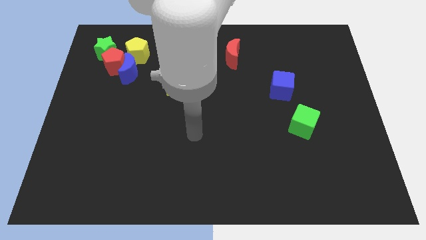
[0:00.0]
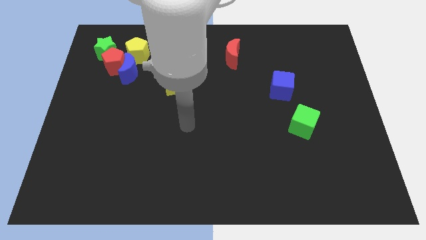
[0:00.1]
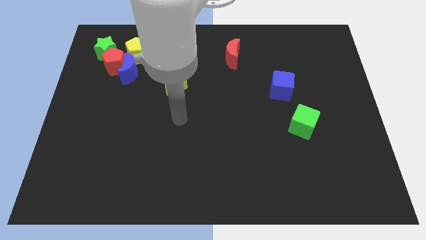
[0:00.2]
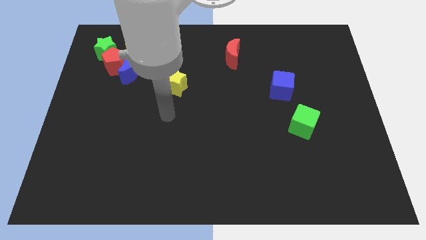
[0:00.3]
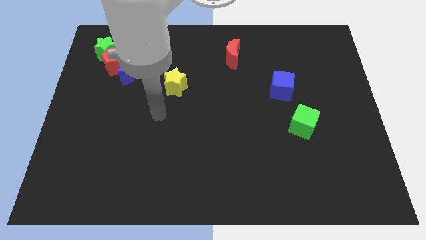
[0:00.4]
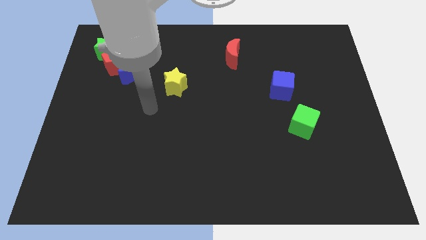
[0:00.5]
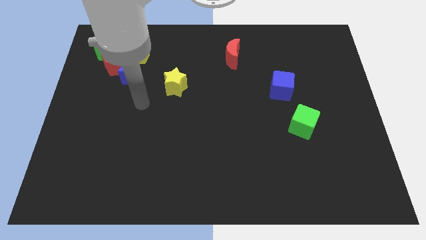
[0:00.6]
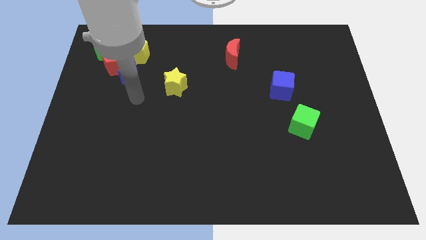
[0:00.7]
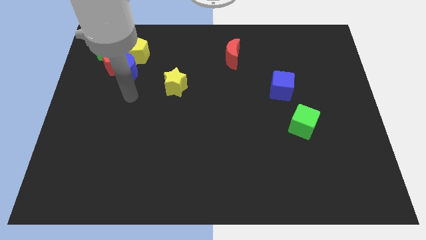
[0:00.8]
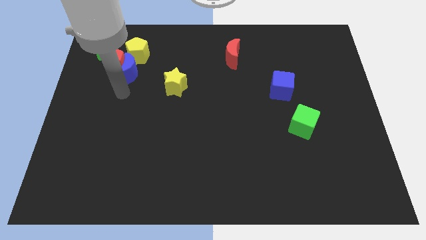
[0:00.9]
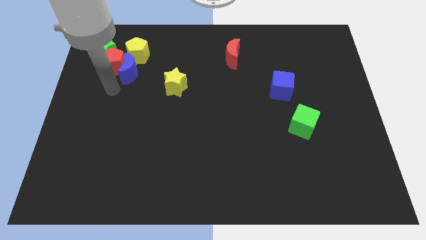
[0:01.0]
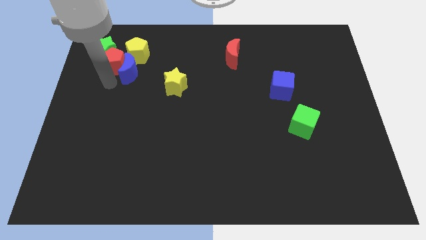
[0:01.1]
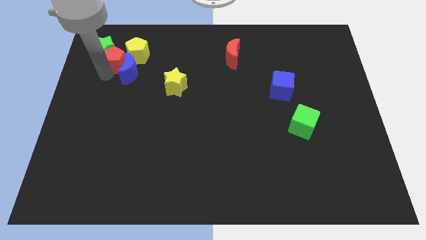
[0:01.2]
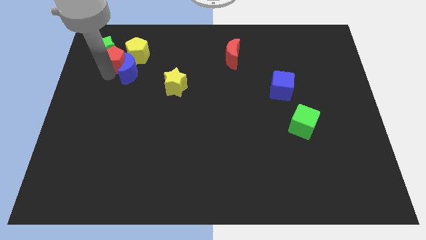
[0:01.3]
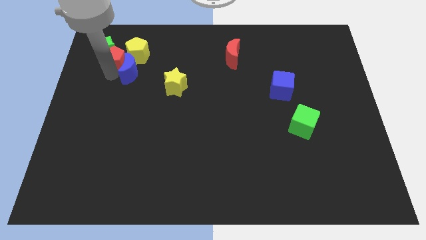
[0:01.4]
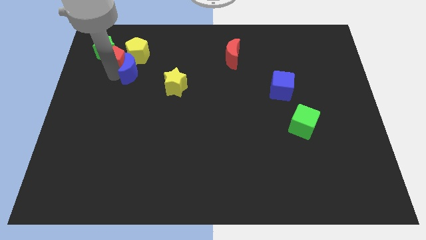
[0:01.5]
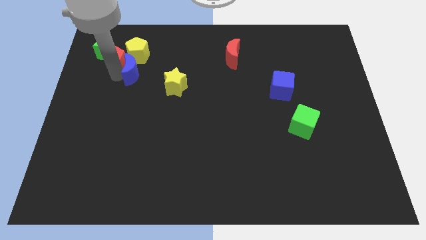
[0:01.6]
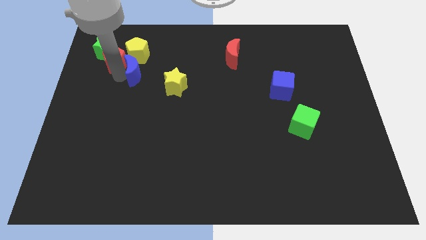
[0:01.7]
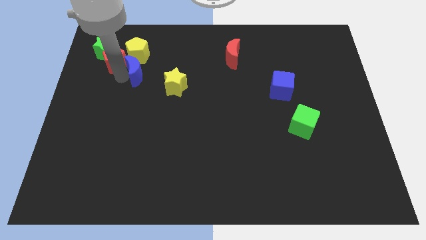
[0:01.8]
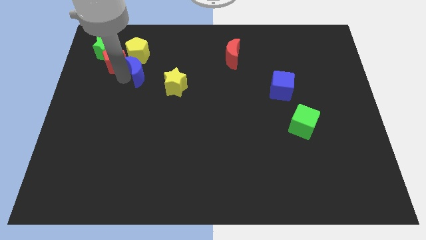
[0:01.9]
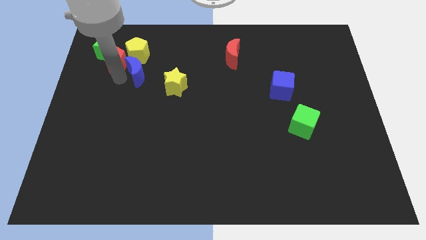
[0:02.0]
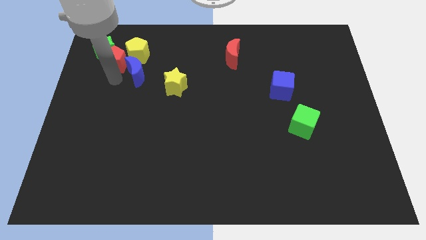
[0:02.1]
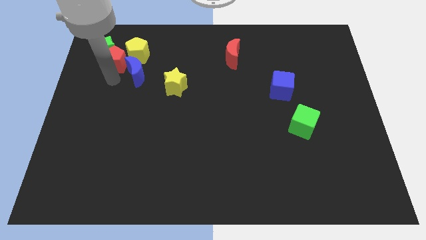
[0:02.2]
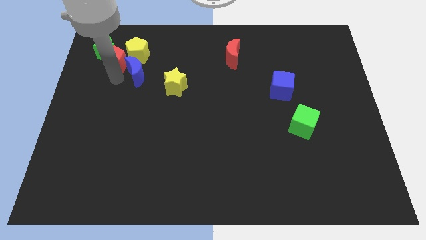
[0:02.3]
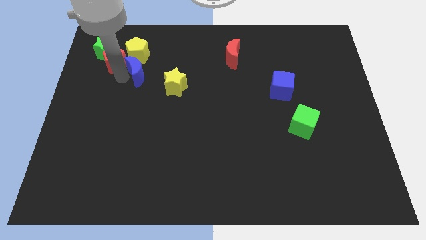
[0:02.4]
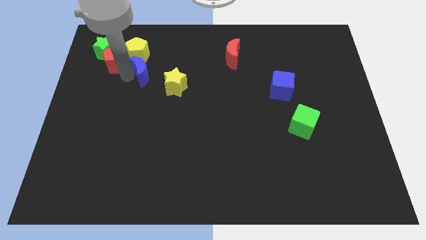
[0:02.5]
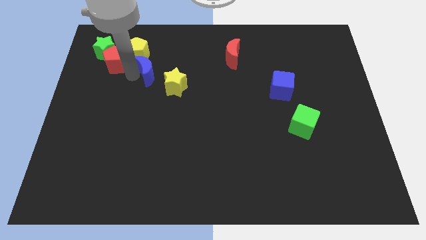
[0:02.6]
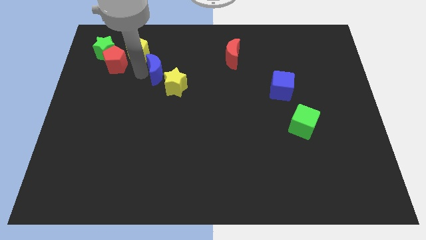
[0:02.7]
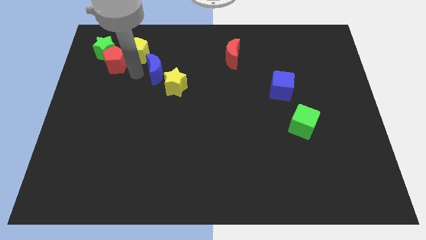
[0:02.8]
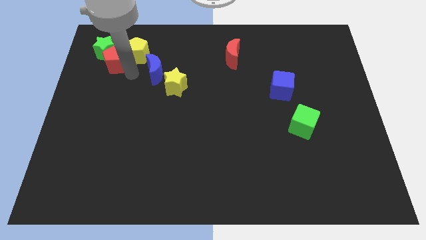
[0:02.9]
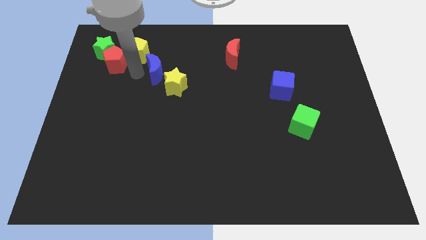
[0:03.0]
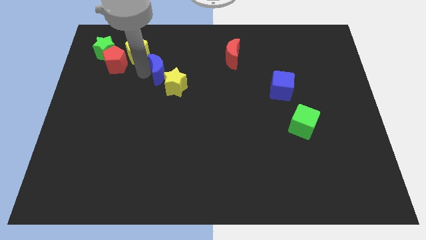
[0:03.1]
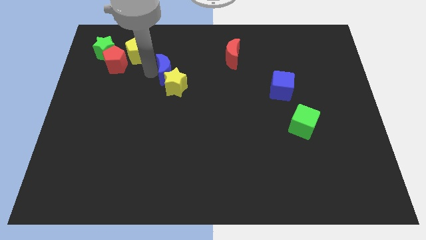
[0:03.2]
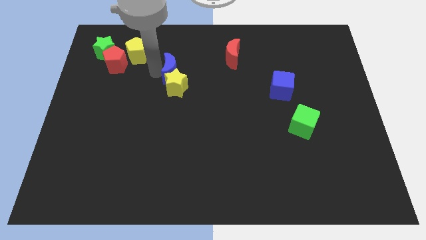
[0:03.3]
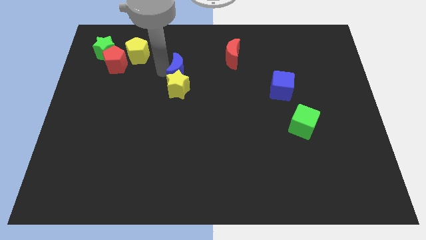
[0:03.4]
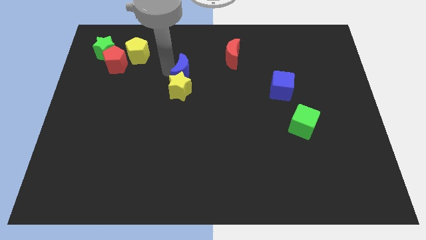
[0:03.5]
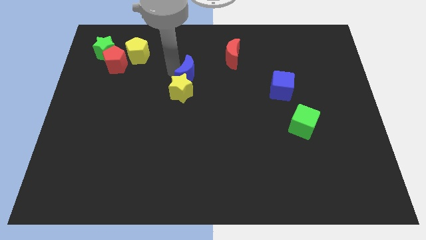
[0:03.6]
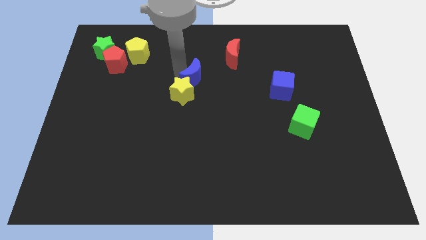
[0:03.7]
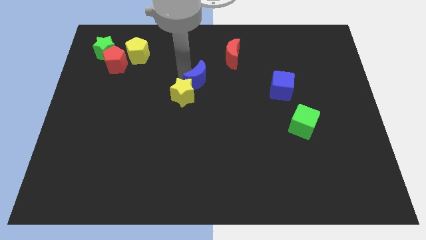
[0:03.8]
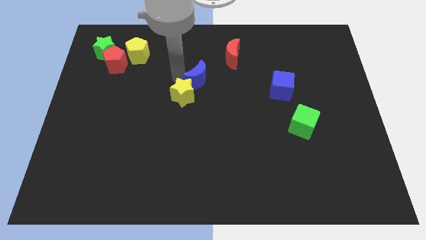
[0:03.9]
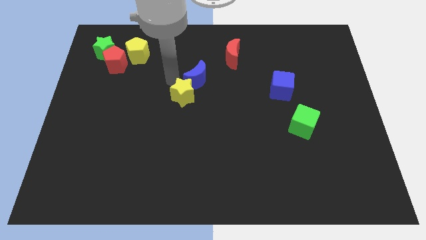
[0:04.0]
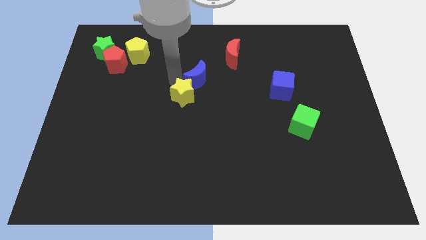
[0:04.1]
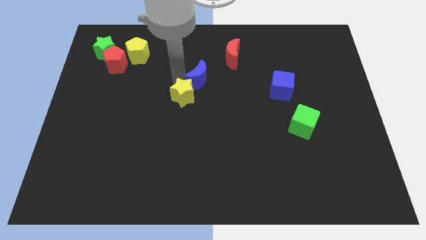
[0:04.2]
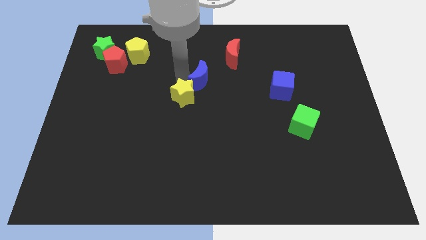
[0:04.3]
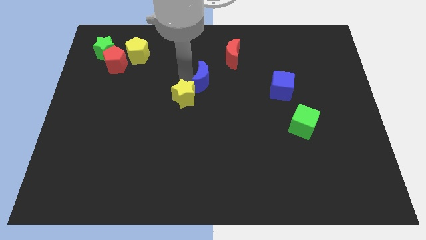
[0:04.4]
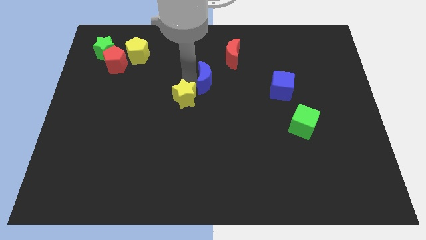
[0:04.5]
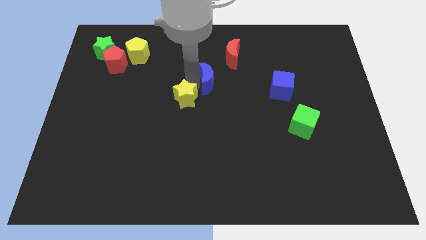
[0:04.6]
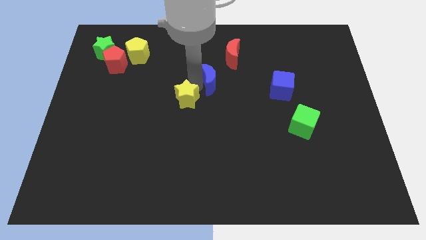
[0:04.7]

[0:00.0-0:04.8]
slide the blue moon to the right

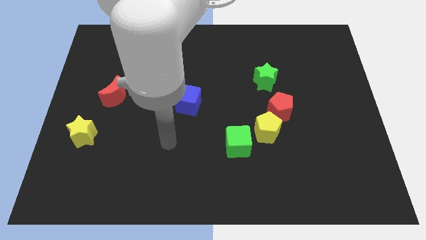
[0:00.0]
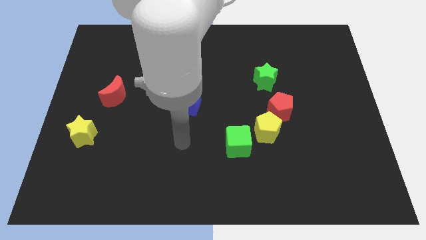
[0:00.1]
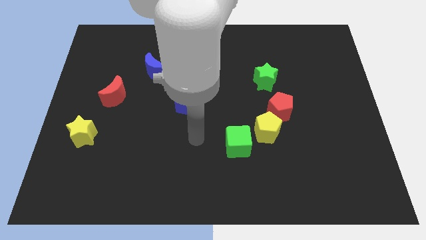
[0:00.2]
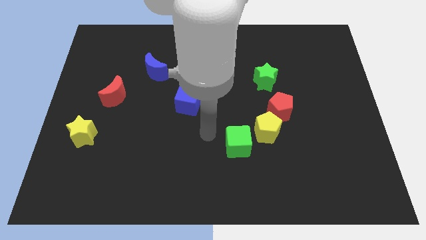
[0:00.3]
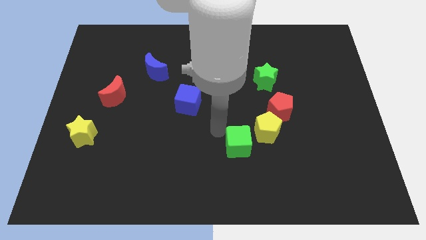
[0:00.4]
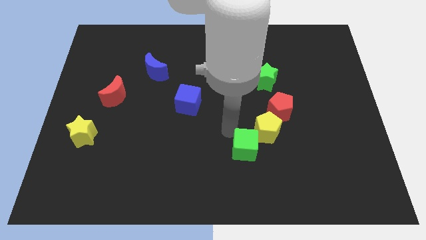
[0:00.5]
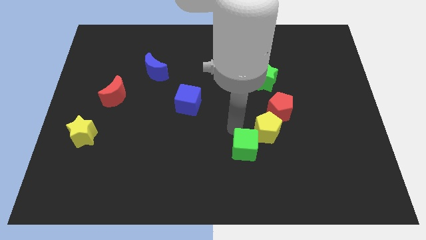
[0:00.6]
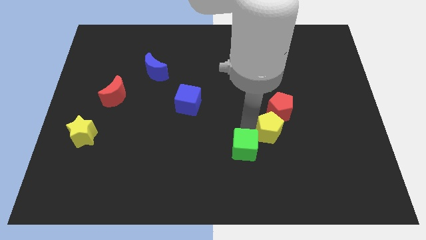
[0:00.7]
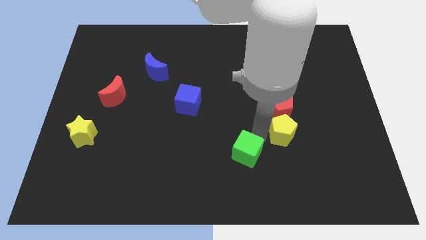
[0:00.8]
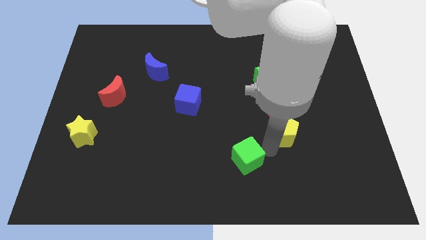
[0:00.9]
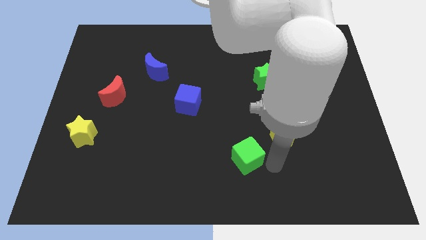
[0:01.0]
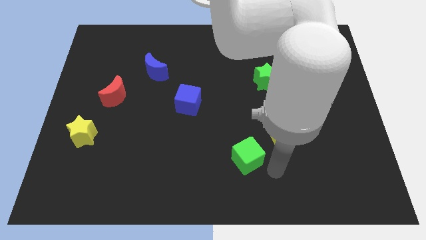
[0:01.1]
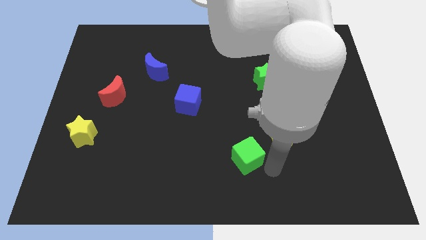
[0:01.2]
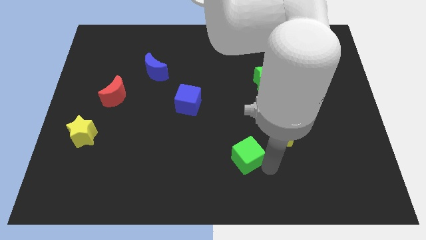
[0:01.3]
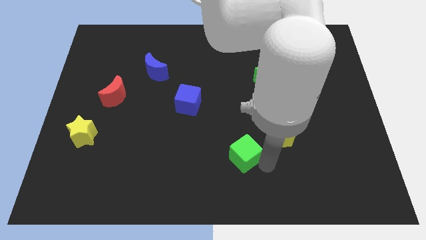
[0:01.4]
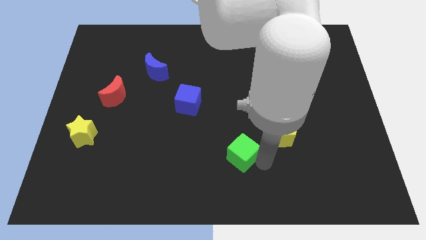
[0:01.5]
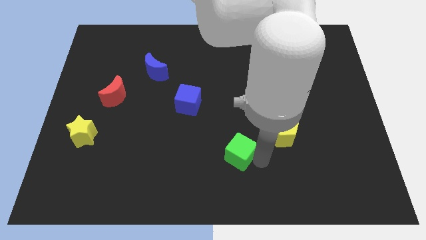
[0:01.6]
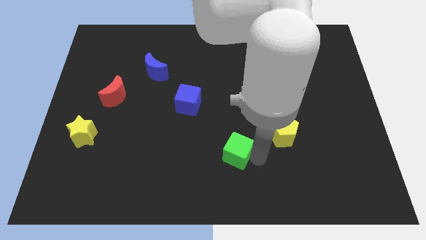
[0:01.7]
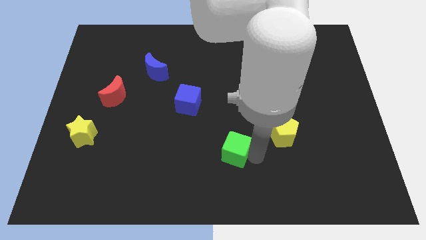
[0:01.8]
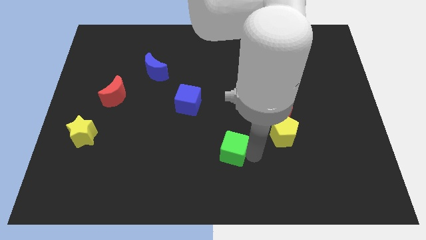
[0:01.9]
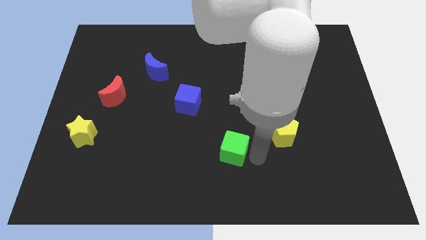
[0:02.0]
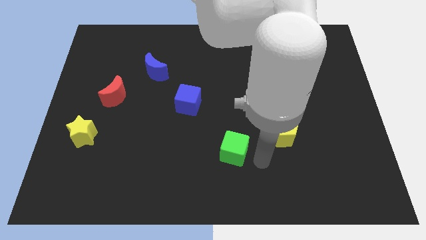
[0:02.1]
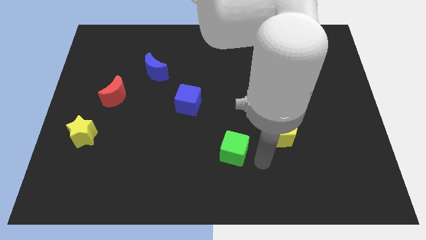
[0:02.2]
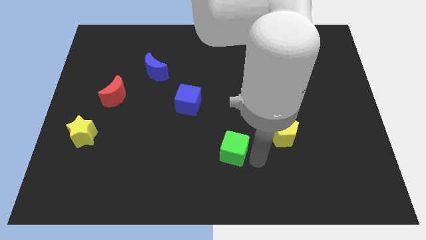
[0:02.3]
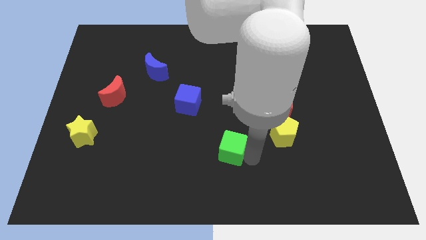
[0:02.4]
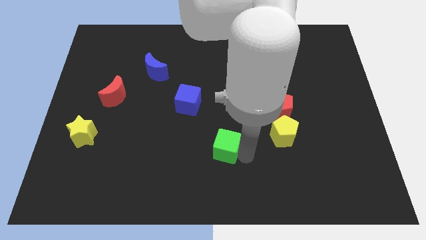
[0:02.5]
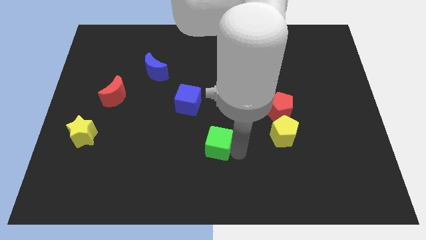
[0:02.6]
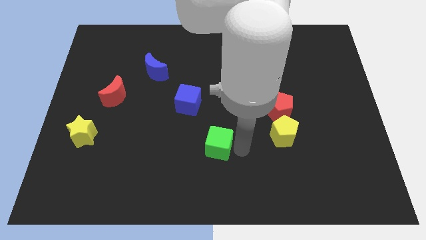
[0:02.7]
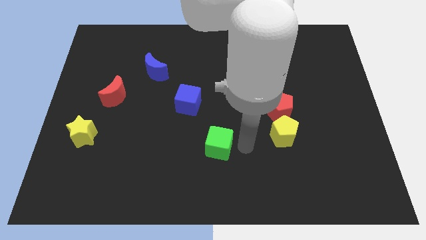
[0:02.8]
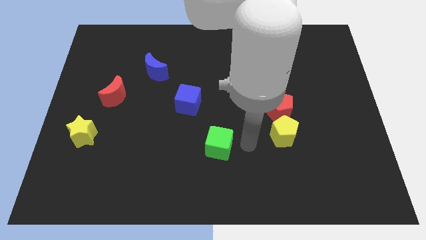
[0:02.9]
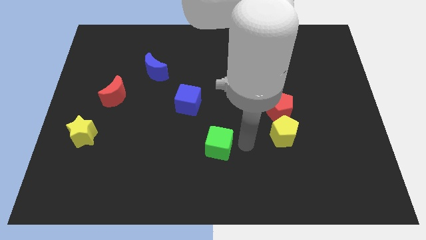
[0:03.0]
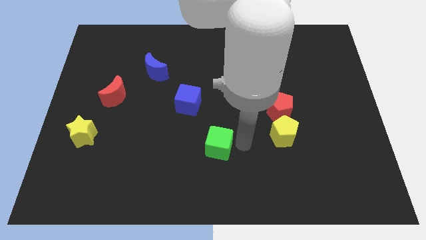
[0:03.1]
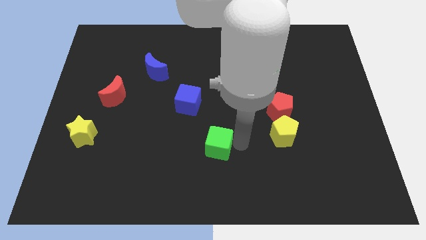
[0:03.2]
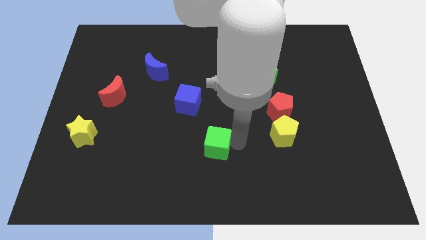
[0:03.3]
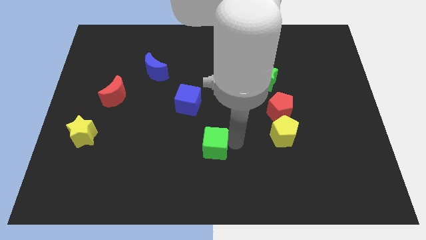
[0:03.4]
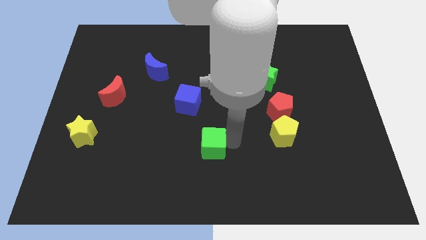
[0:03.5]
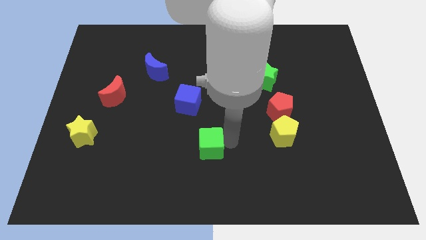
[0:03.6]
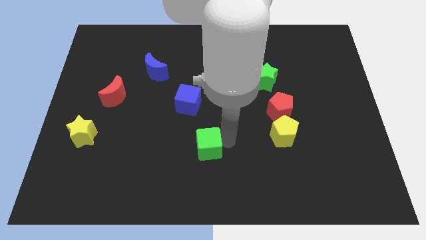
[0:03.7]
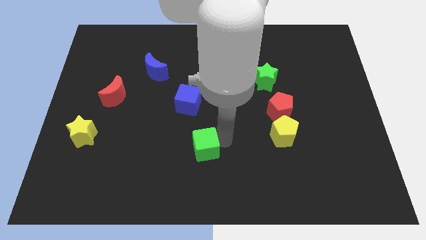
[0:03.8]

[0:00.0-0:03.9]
push the green cube somewhat to the left
